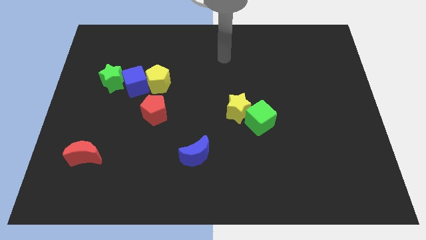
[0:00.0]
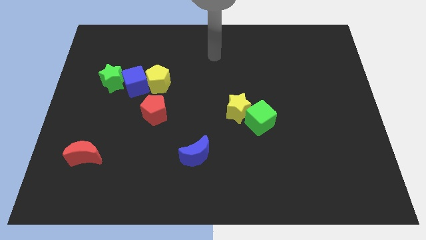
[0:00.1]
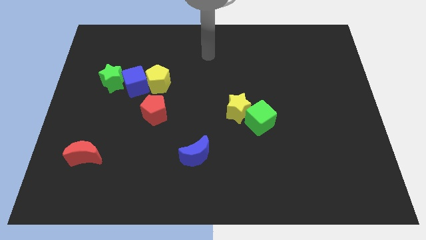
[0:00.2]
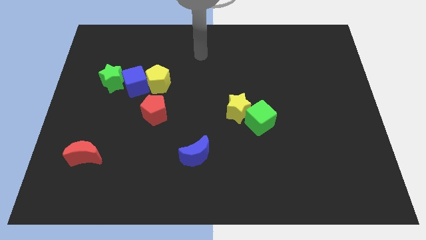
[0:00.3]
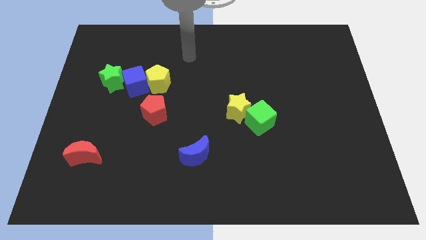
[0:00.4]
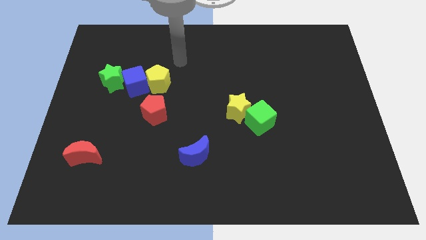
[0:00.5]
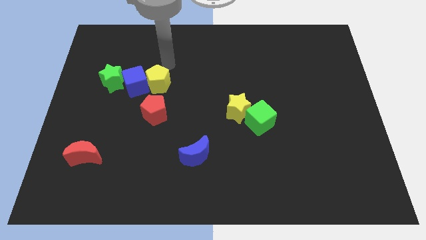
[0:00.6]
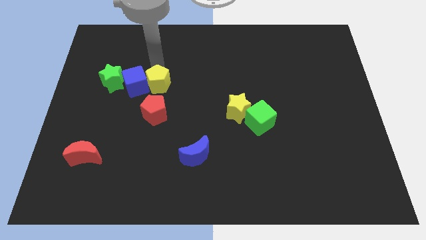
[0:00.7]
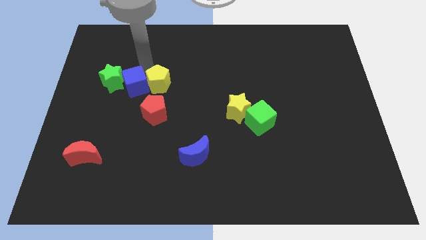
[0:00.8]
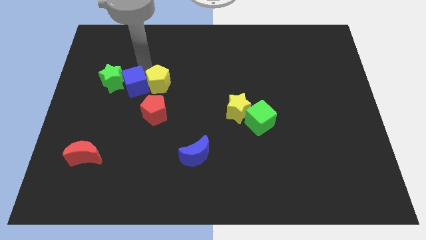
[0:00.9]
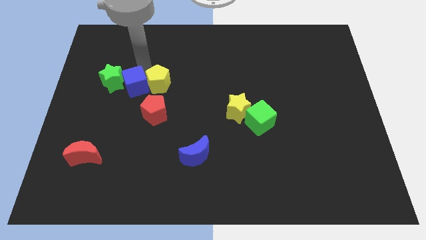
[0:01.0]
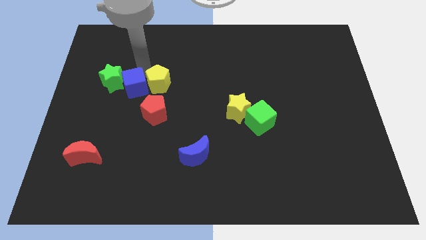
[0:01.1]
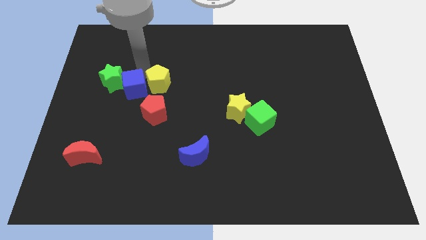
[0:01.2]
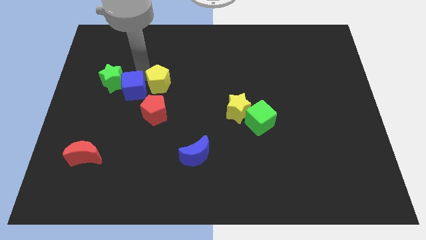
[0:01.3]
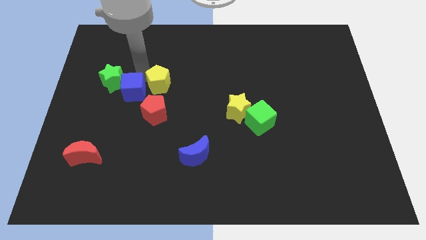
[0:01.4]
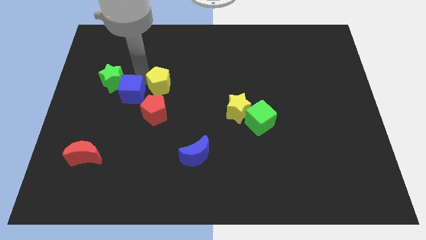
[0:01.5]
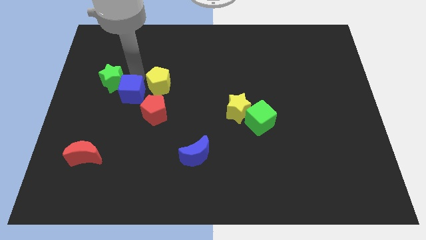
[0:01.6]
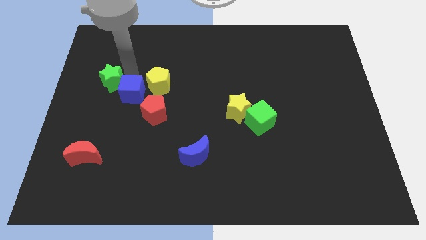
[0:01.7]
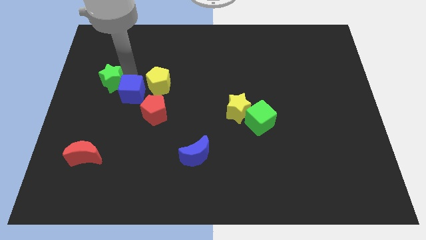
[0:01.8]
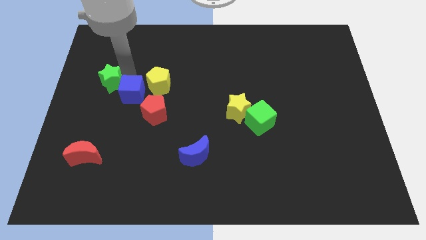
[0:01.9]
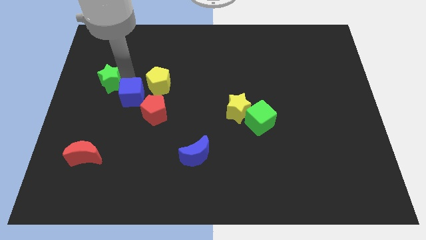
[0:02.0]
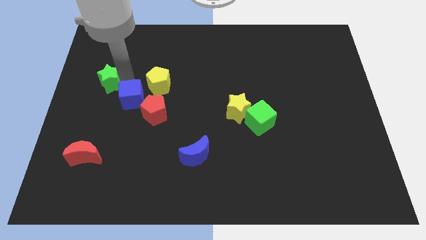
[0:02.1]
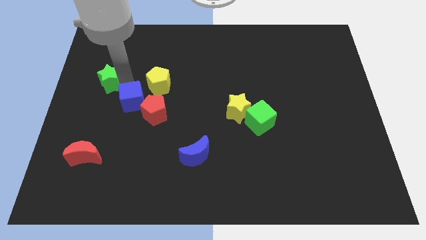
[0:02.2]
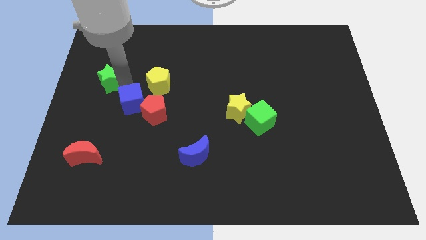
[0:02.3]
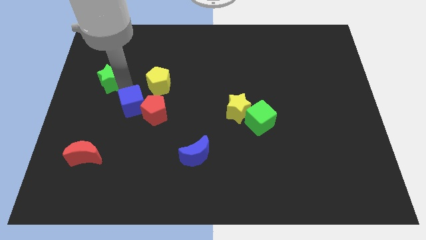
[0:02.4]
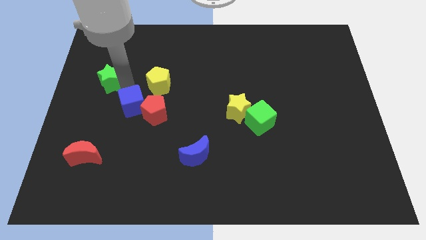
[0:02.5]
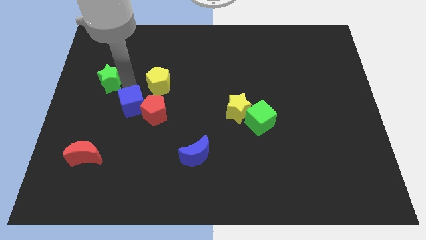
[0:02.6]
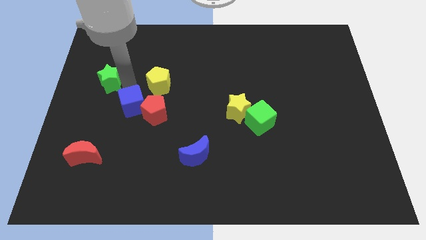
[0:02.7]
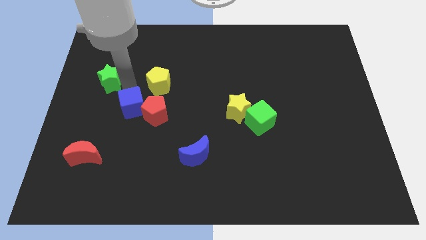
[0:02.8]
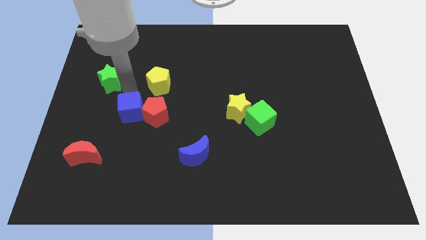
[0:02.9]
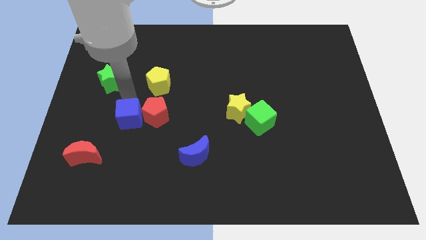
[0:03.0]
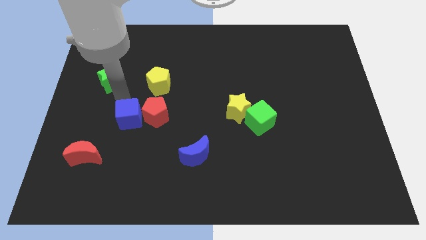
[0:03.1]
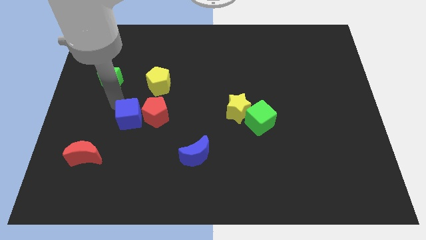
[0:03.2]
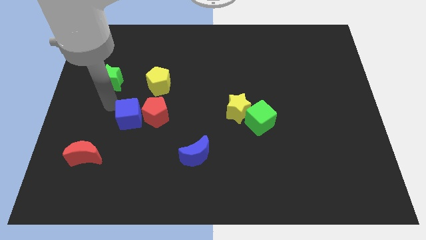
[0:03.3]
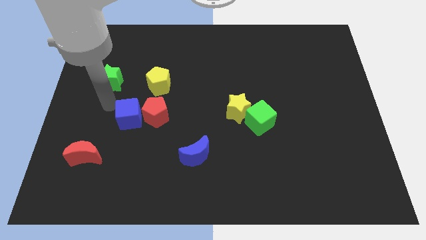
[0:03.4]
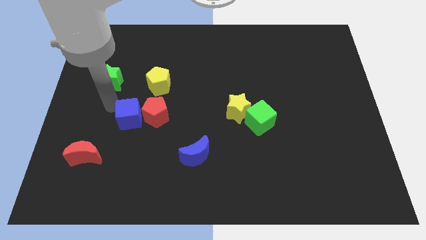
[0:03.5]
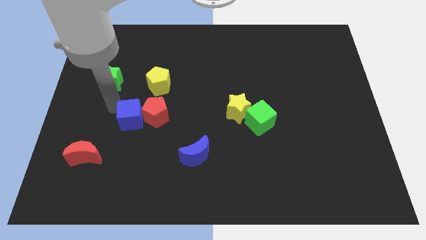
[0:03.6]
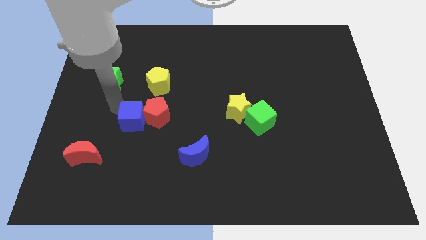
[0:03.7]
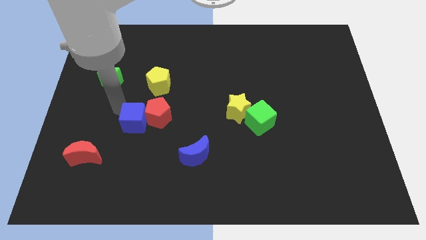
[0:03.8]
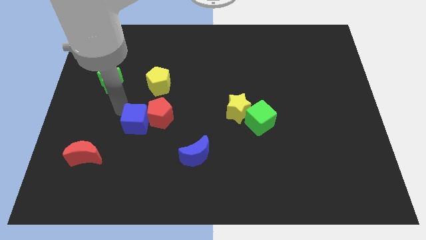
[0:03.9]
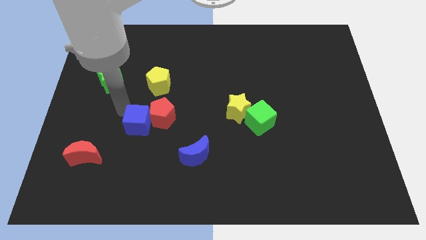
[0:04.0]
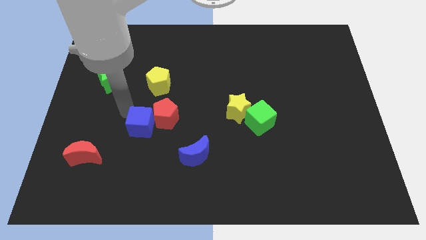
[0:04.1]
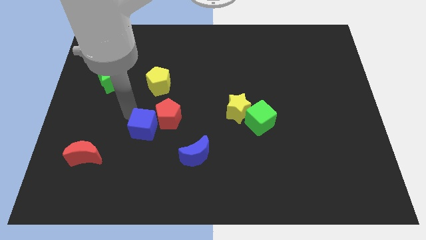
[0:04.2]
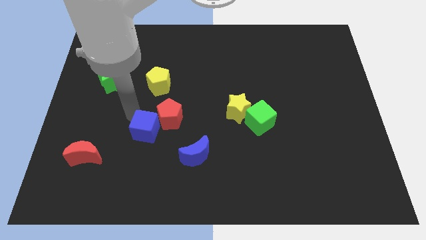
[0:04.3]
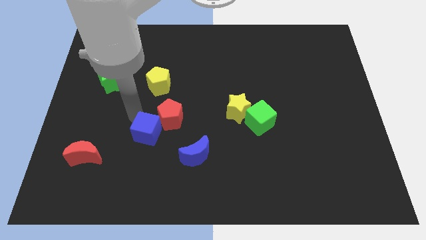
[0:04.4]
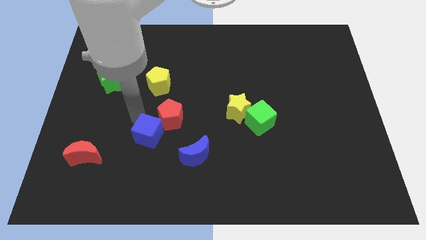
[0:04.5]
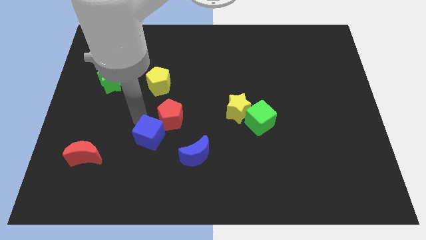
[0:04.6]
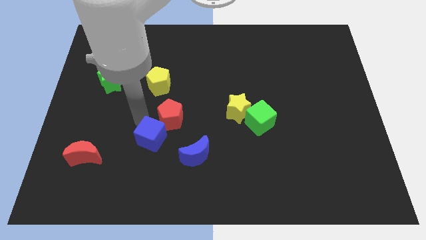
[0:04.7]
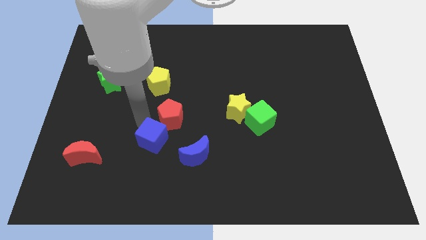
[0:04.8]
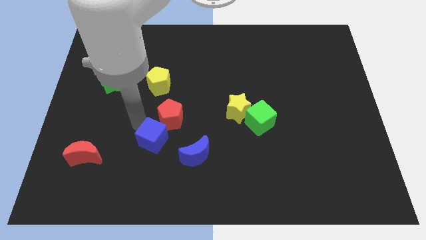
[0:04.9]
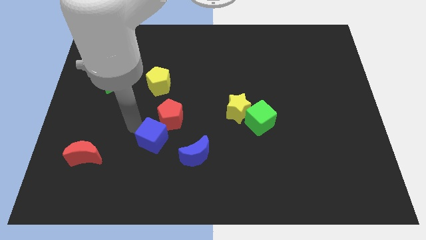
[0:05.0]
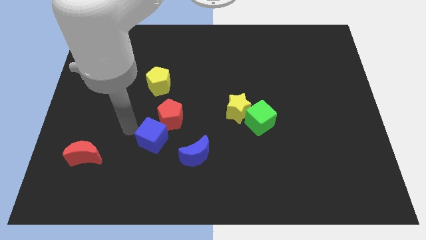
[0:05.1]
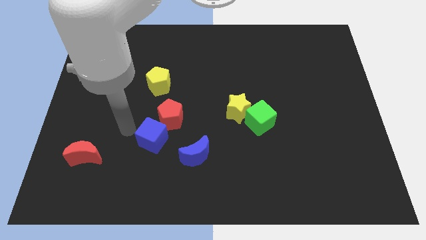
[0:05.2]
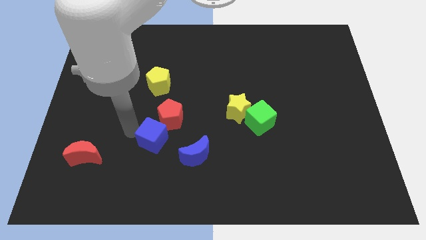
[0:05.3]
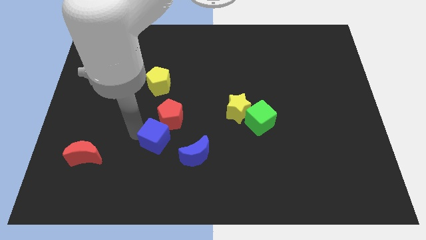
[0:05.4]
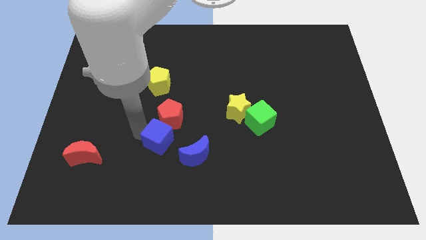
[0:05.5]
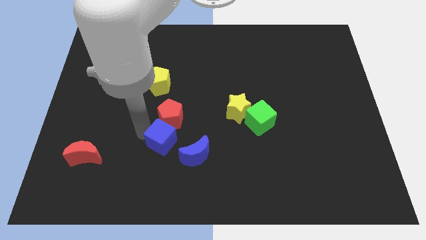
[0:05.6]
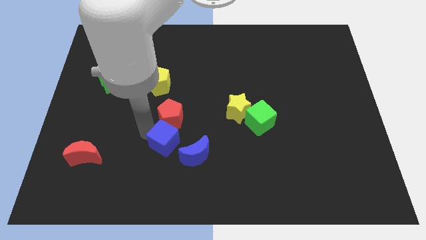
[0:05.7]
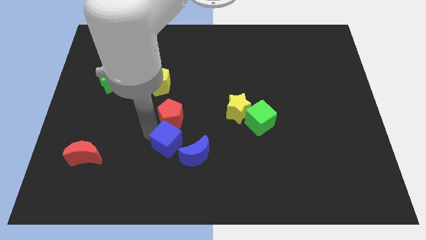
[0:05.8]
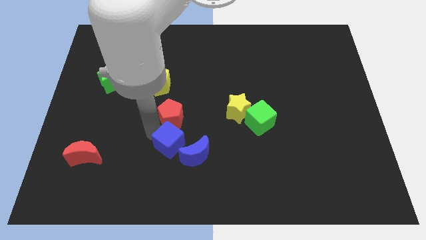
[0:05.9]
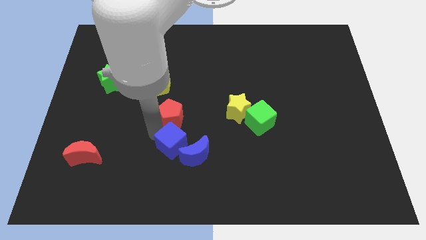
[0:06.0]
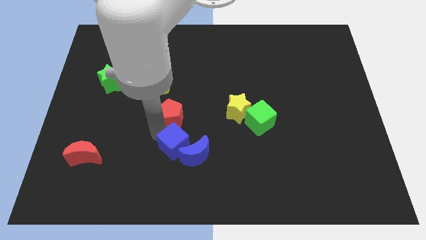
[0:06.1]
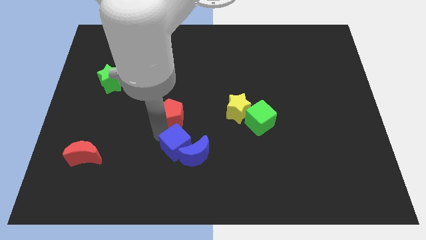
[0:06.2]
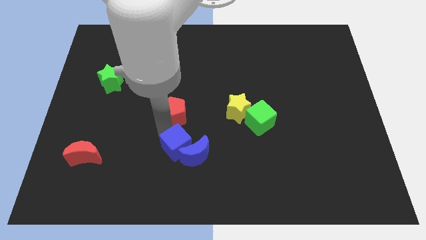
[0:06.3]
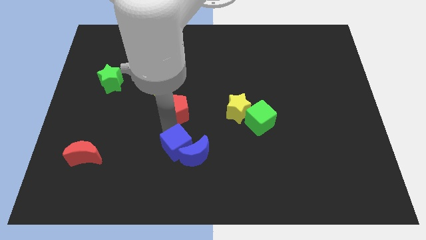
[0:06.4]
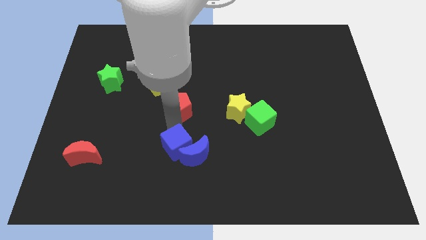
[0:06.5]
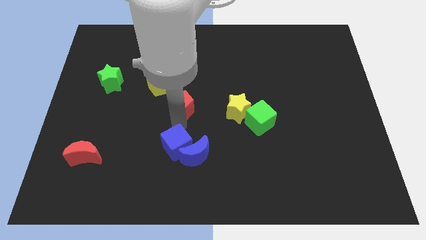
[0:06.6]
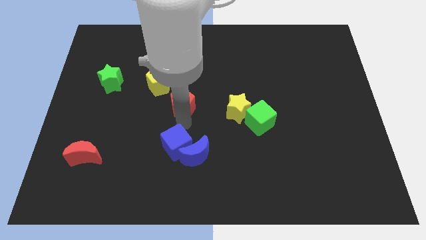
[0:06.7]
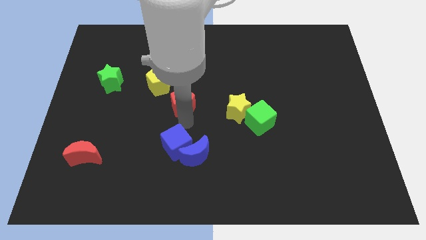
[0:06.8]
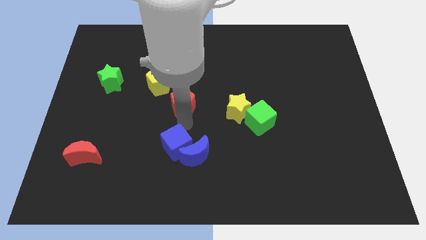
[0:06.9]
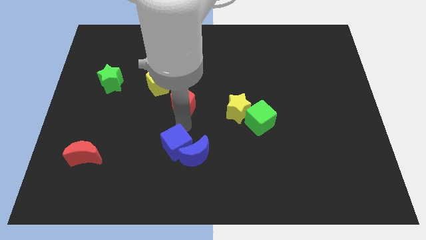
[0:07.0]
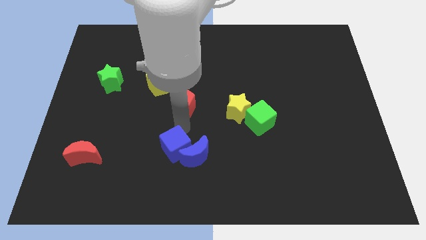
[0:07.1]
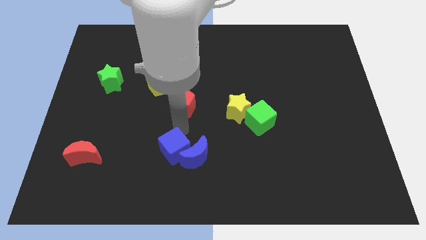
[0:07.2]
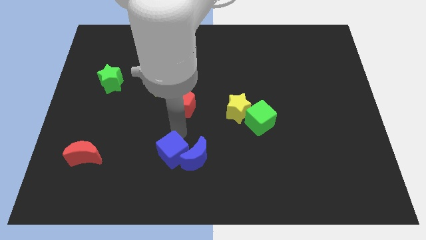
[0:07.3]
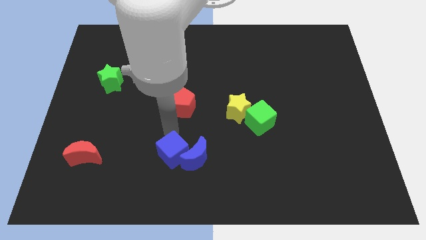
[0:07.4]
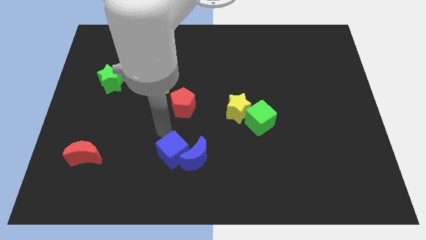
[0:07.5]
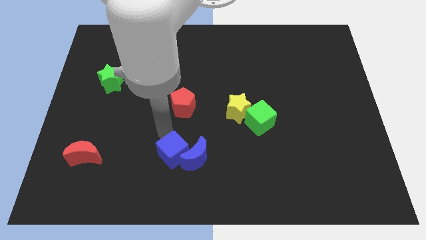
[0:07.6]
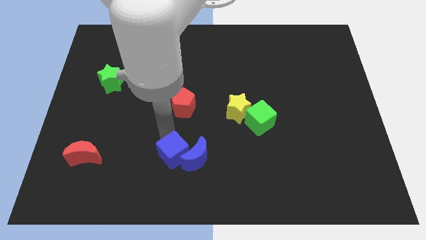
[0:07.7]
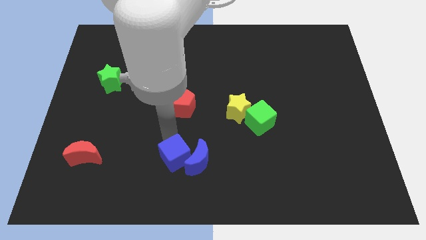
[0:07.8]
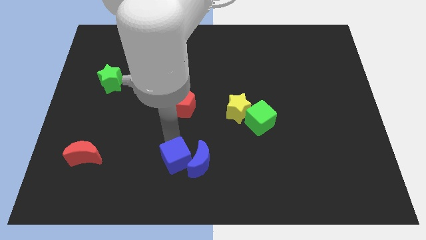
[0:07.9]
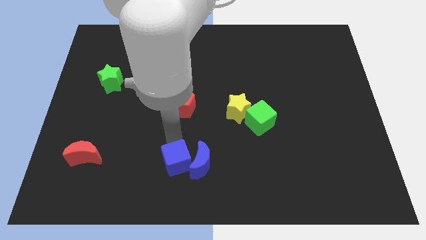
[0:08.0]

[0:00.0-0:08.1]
slide the blue cube to the bottom
